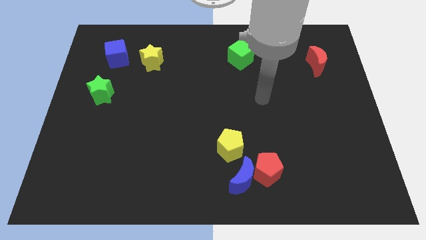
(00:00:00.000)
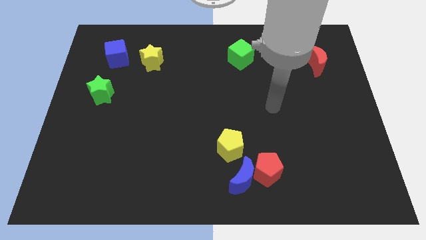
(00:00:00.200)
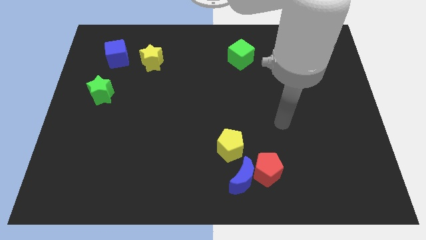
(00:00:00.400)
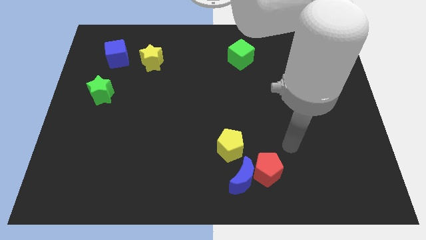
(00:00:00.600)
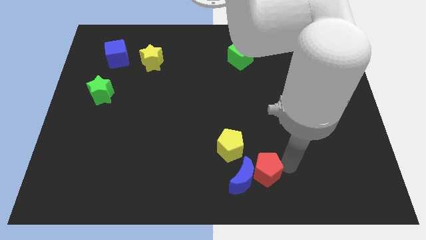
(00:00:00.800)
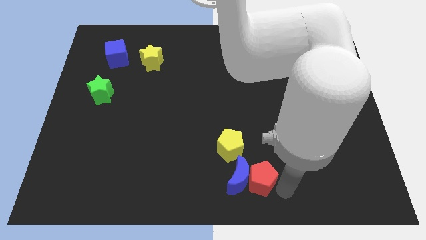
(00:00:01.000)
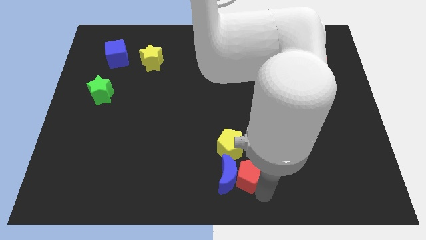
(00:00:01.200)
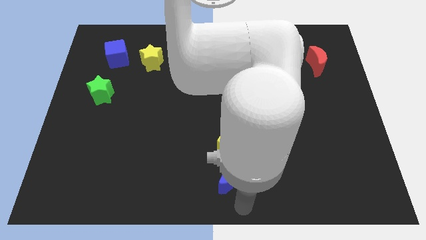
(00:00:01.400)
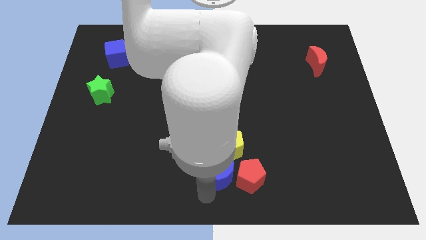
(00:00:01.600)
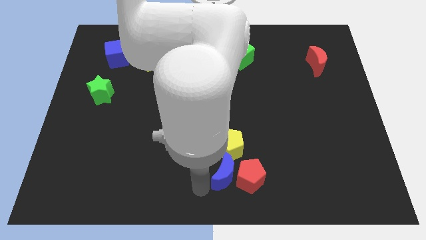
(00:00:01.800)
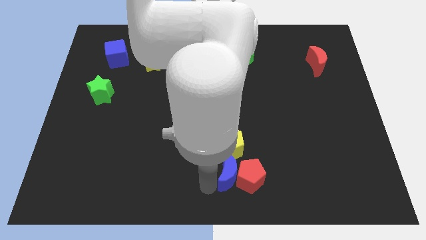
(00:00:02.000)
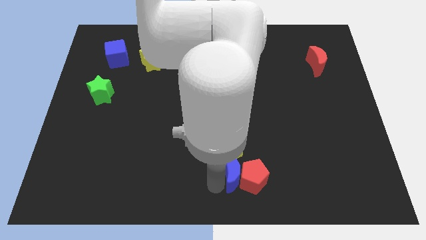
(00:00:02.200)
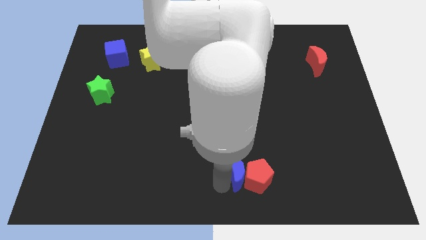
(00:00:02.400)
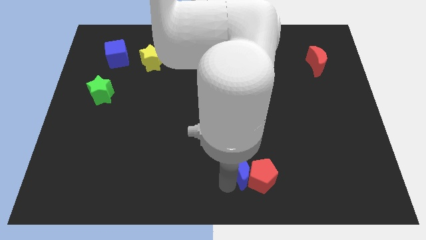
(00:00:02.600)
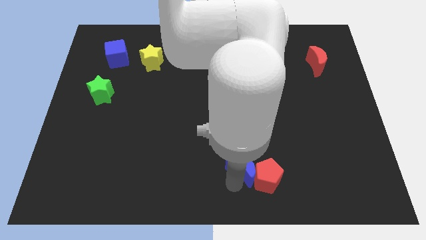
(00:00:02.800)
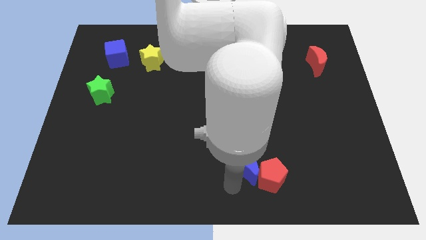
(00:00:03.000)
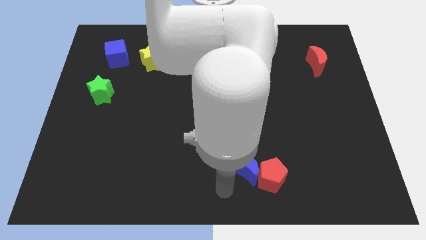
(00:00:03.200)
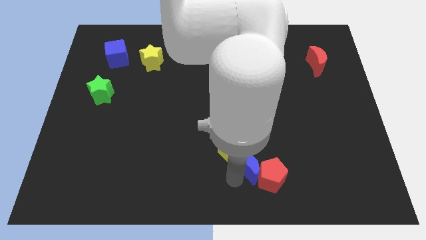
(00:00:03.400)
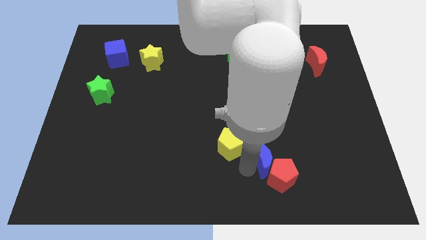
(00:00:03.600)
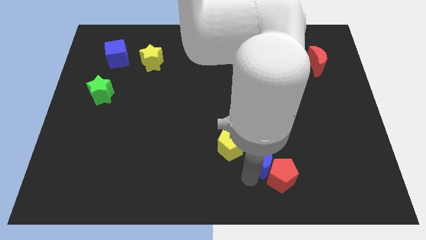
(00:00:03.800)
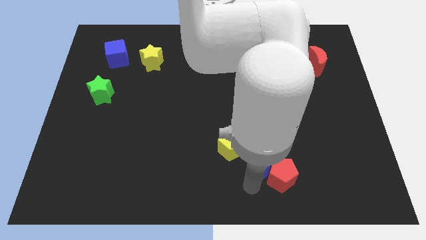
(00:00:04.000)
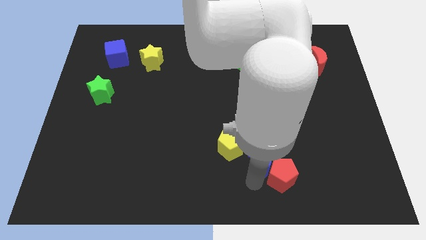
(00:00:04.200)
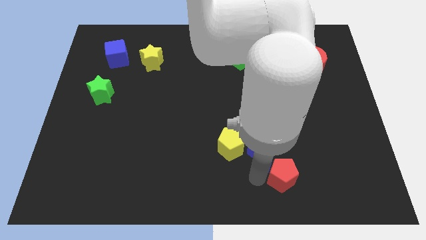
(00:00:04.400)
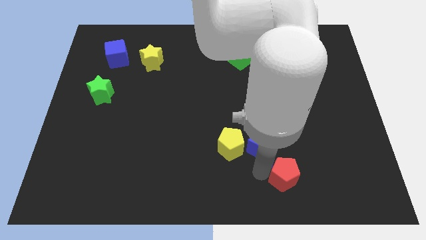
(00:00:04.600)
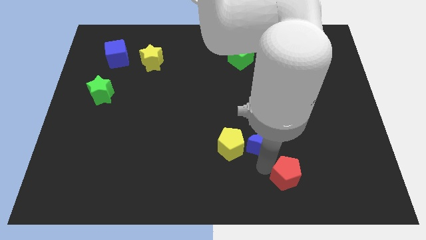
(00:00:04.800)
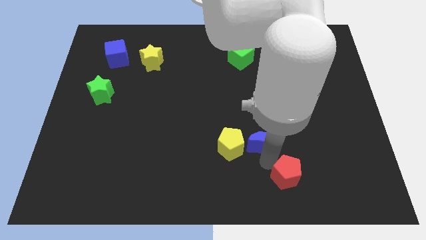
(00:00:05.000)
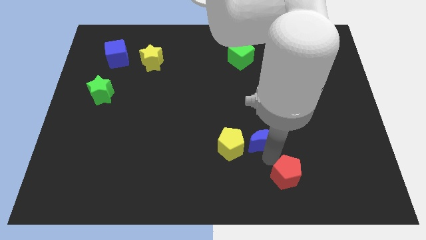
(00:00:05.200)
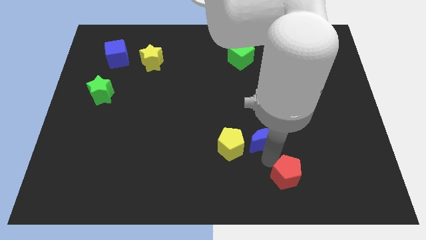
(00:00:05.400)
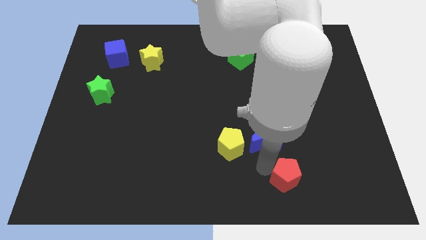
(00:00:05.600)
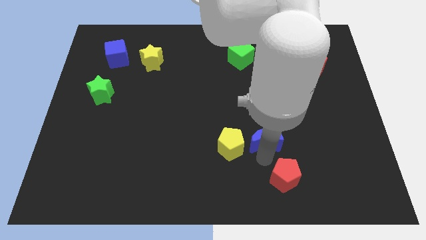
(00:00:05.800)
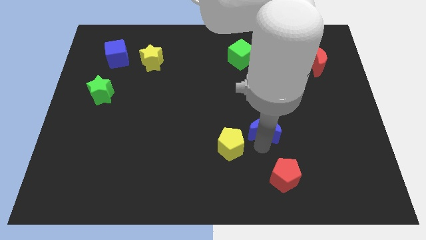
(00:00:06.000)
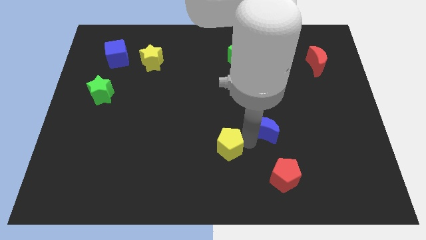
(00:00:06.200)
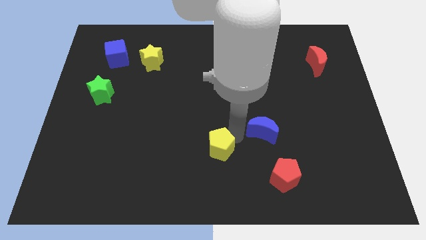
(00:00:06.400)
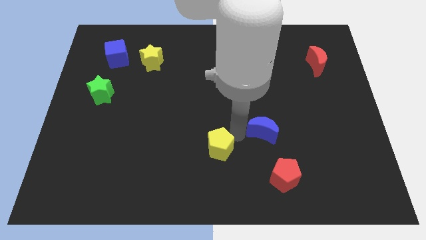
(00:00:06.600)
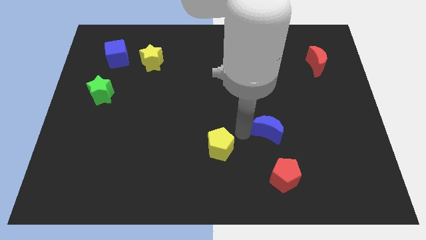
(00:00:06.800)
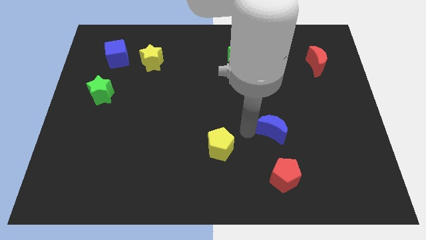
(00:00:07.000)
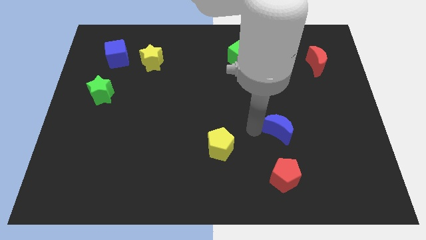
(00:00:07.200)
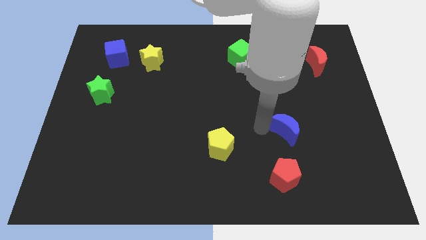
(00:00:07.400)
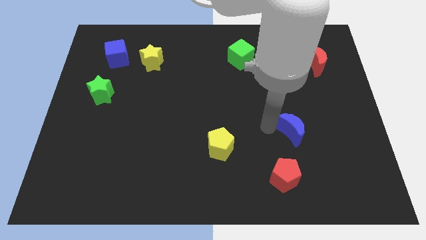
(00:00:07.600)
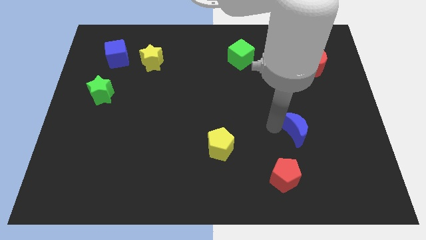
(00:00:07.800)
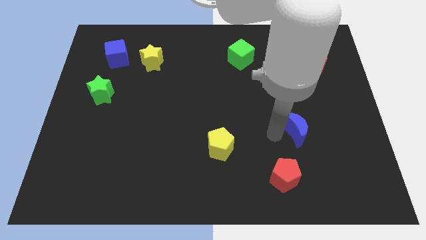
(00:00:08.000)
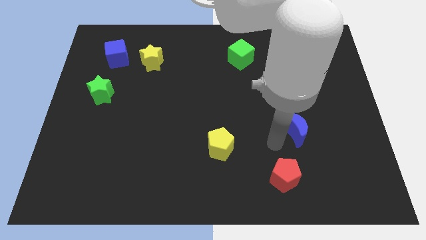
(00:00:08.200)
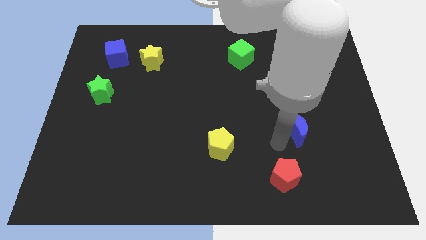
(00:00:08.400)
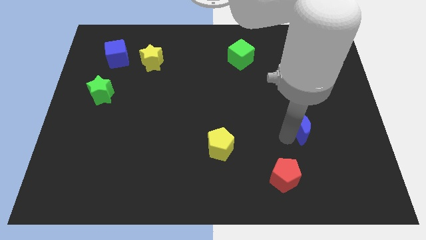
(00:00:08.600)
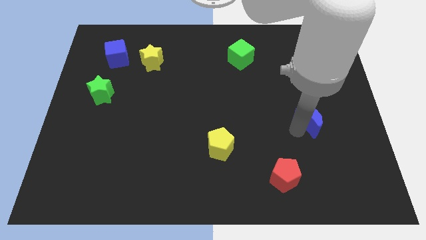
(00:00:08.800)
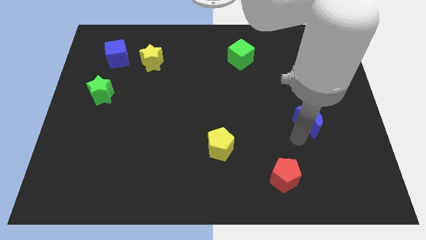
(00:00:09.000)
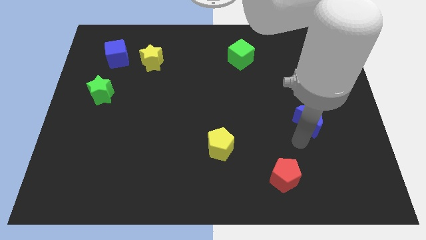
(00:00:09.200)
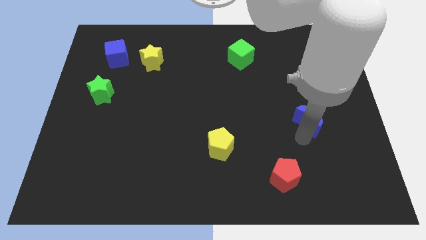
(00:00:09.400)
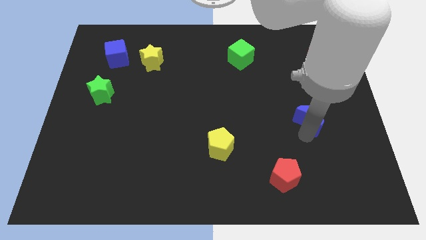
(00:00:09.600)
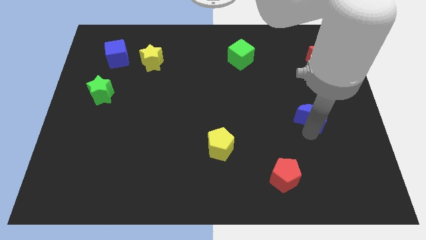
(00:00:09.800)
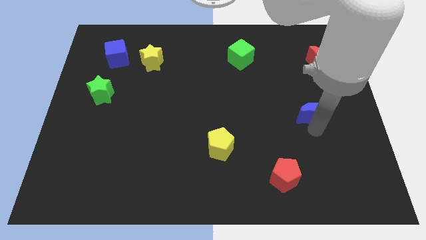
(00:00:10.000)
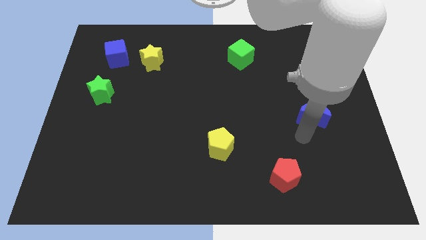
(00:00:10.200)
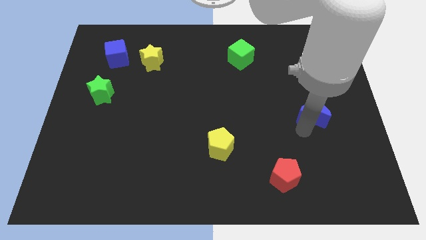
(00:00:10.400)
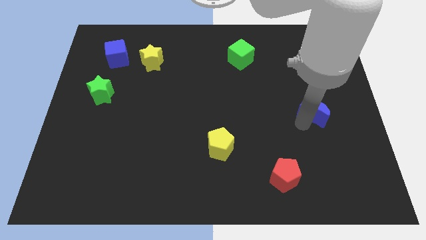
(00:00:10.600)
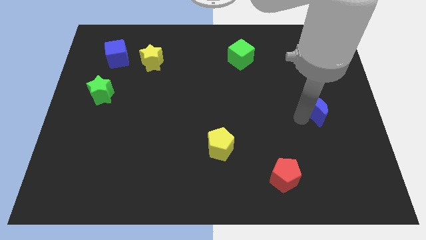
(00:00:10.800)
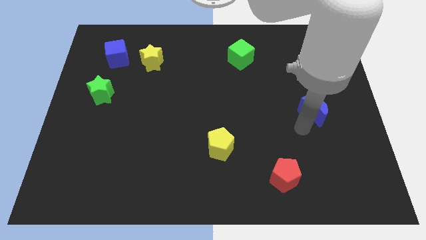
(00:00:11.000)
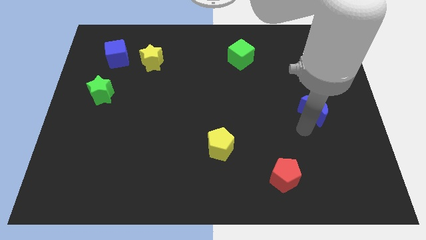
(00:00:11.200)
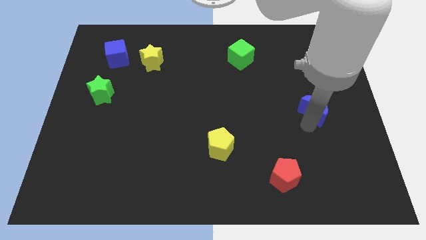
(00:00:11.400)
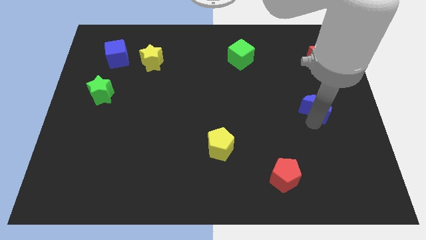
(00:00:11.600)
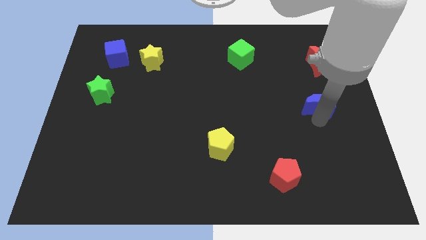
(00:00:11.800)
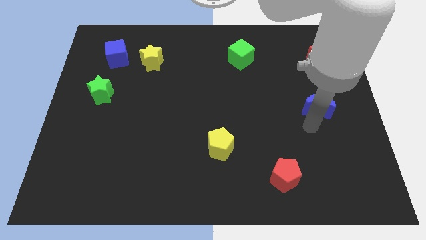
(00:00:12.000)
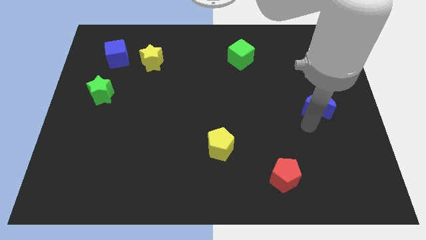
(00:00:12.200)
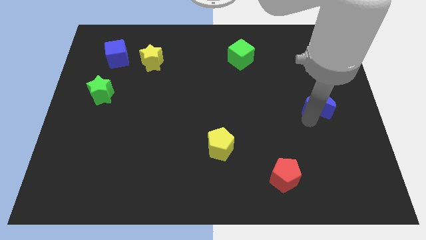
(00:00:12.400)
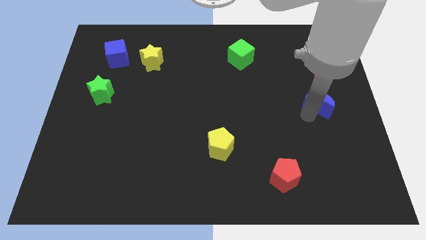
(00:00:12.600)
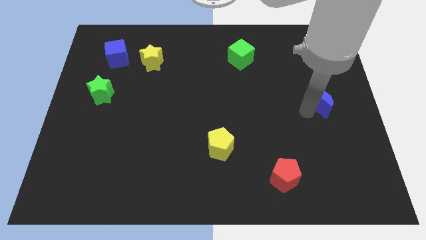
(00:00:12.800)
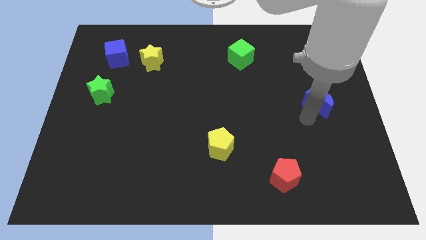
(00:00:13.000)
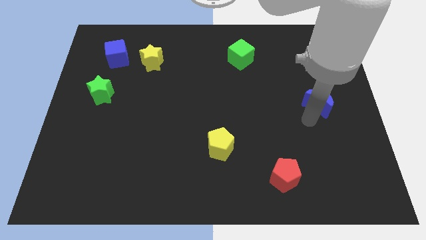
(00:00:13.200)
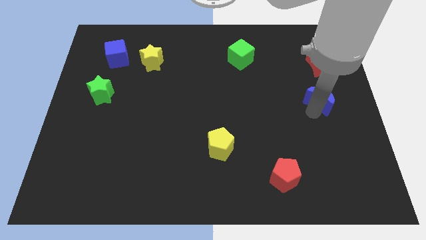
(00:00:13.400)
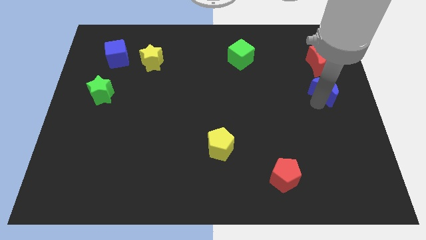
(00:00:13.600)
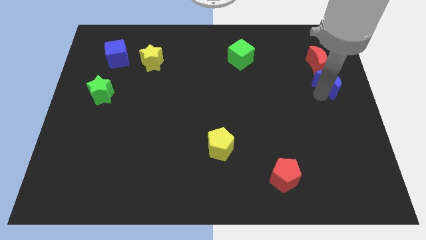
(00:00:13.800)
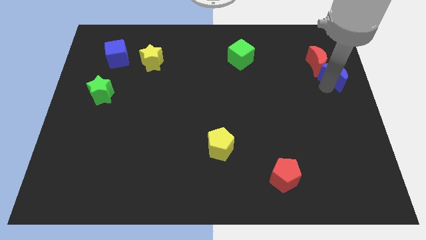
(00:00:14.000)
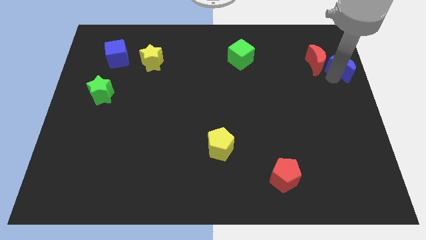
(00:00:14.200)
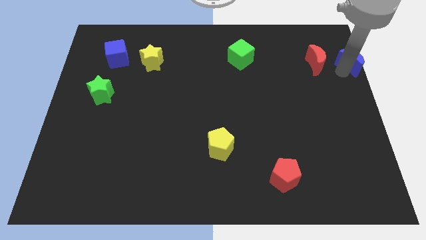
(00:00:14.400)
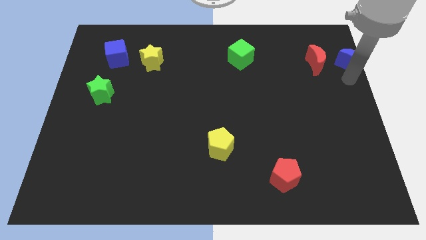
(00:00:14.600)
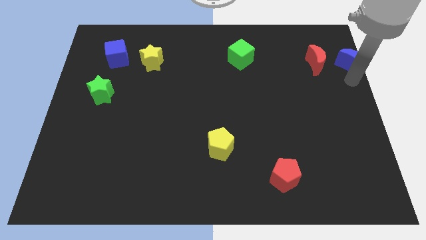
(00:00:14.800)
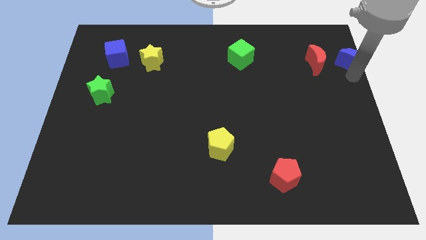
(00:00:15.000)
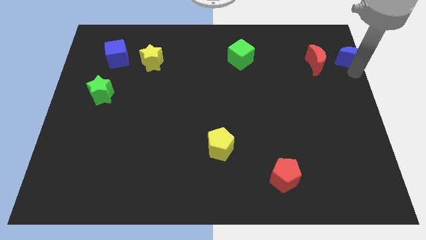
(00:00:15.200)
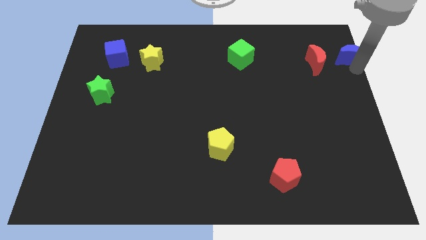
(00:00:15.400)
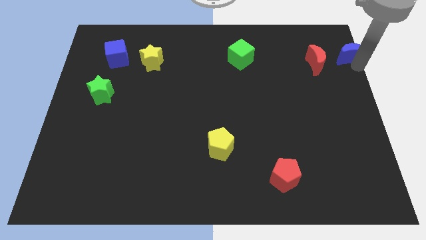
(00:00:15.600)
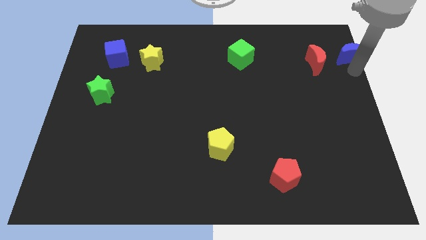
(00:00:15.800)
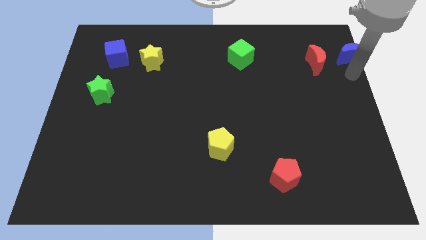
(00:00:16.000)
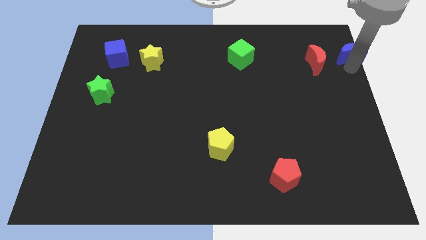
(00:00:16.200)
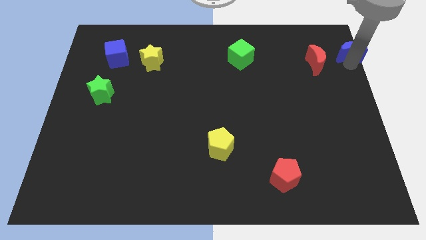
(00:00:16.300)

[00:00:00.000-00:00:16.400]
slide the blue moon to the top right
